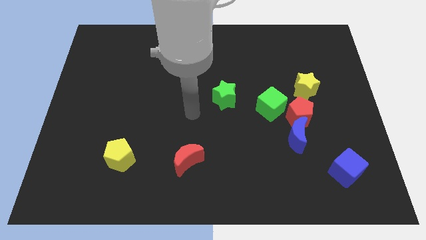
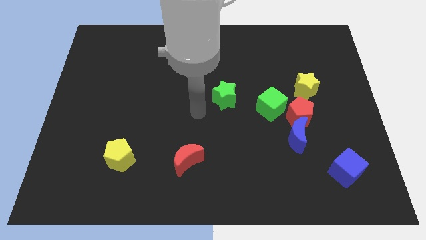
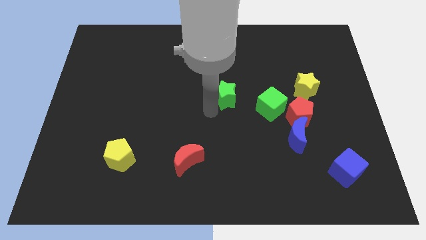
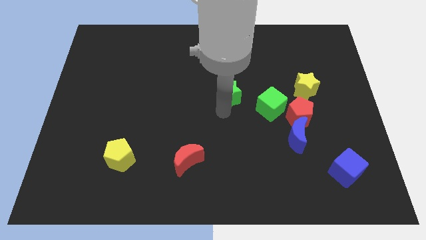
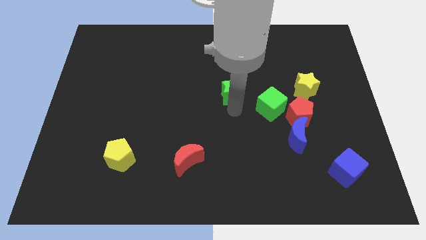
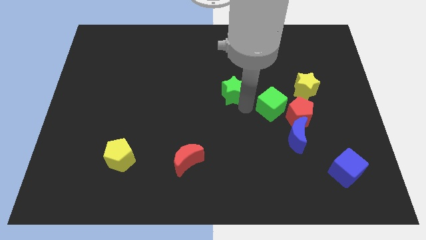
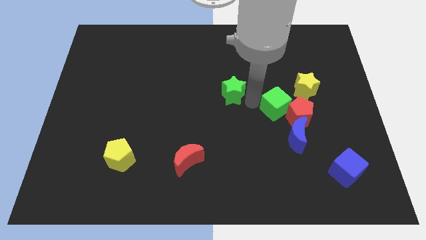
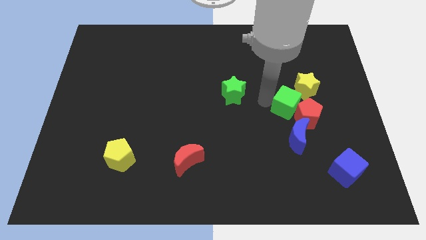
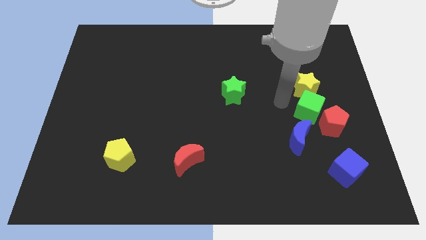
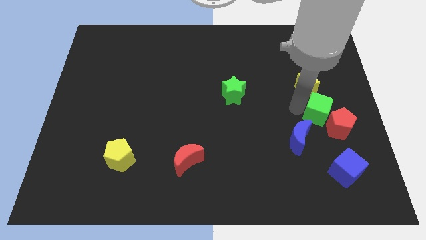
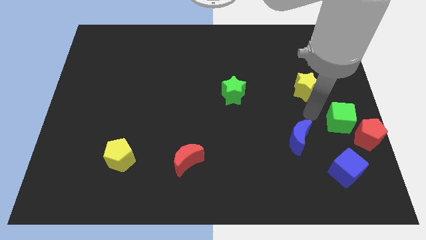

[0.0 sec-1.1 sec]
pull the red pentagon apart from the group of blocks

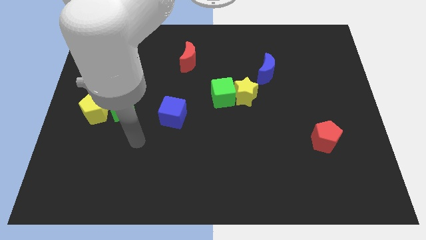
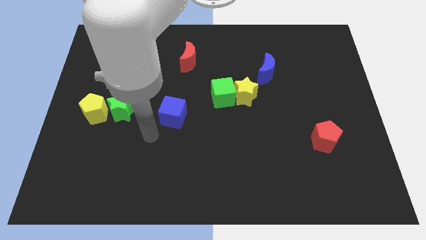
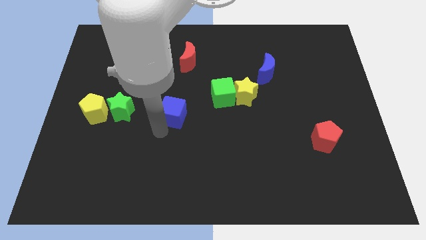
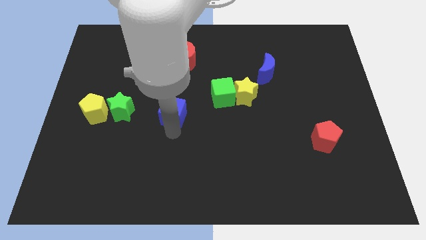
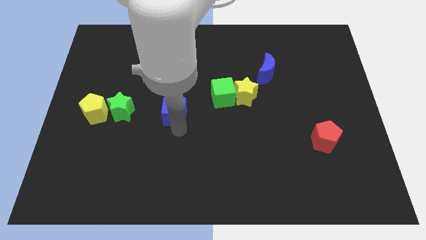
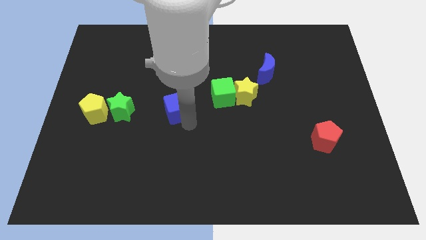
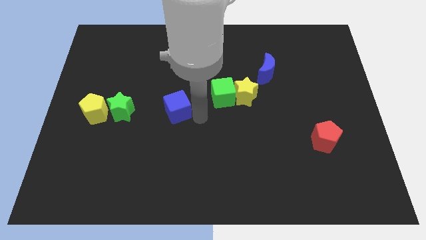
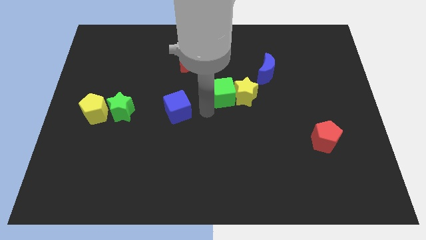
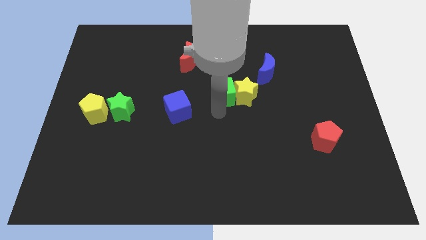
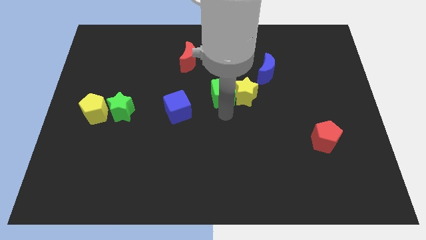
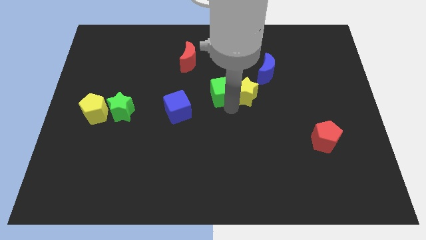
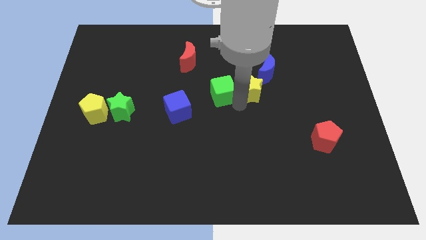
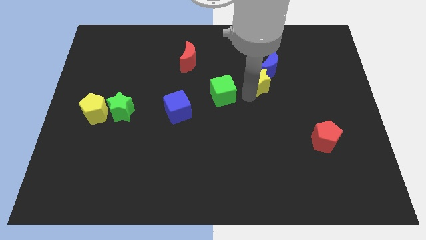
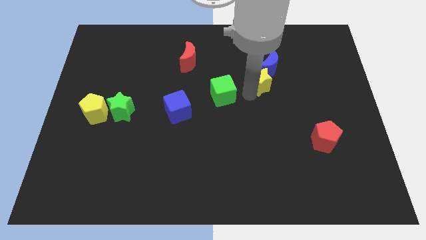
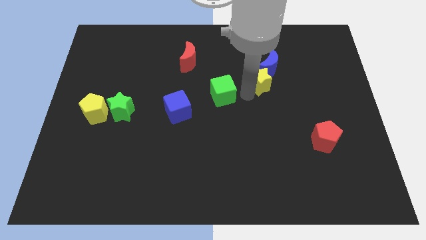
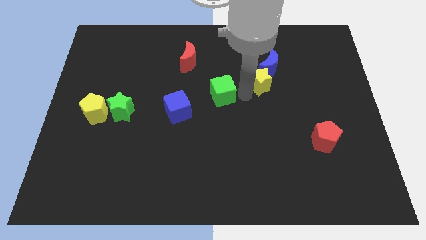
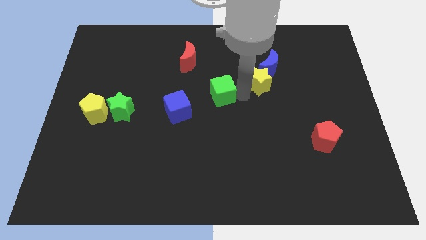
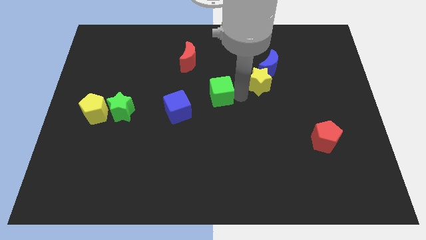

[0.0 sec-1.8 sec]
separate the green cube from the yellow star

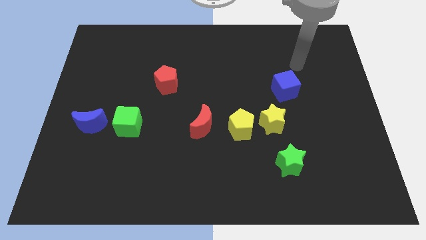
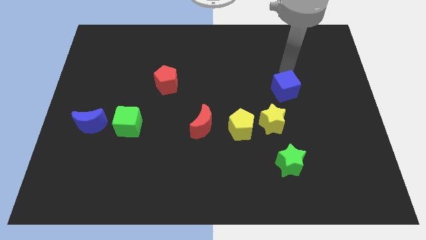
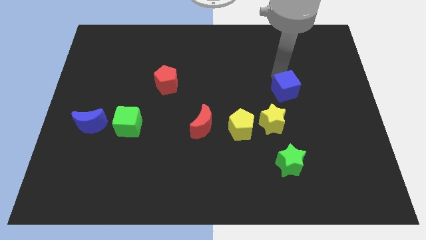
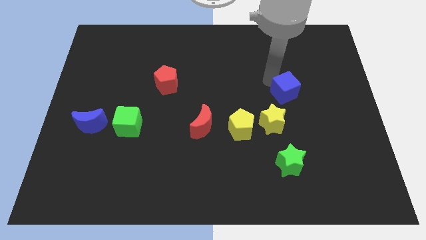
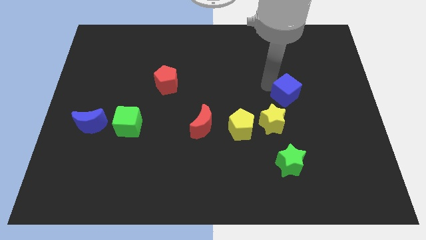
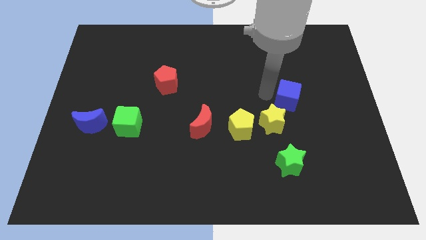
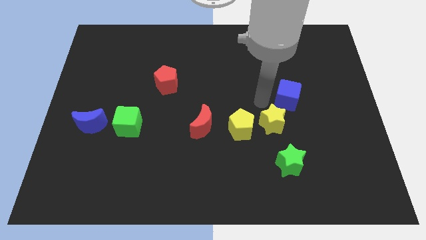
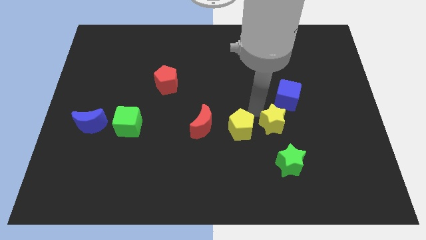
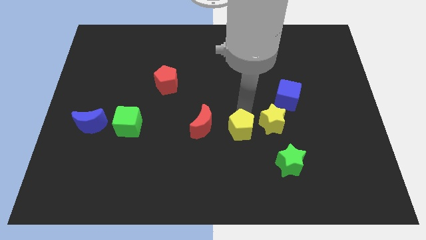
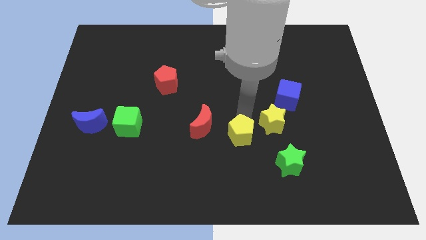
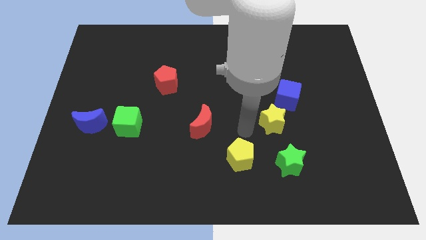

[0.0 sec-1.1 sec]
separate the yellow star from the yellow pentagon

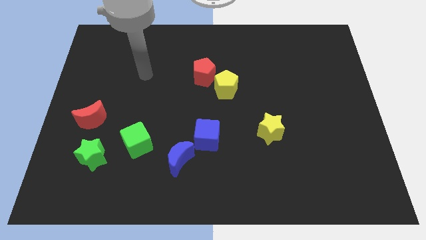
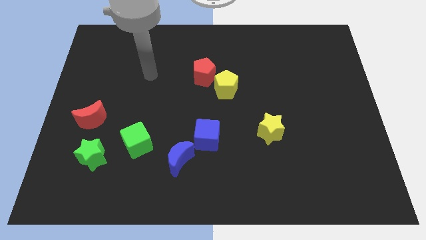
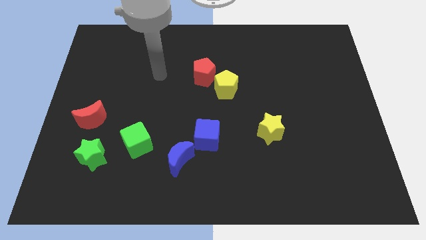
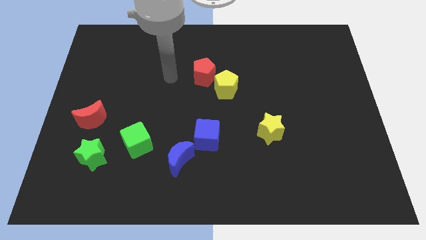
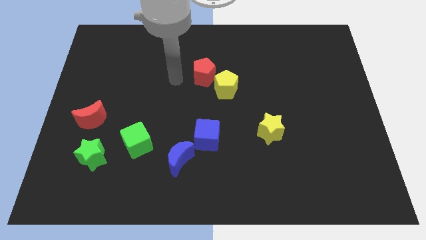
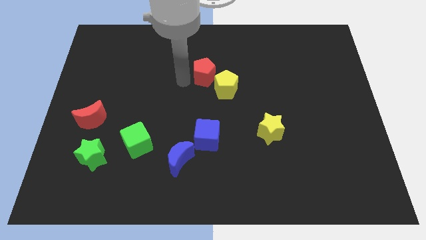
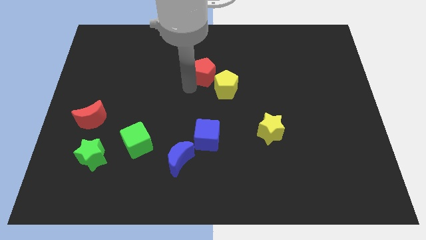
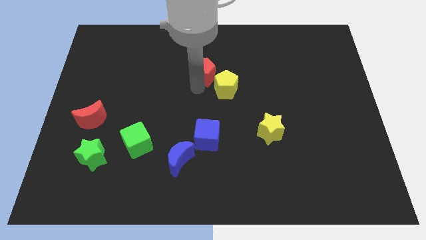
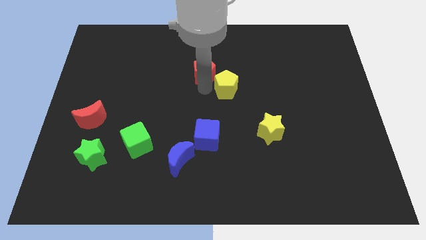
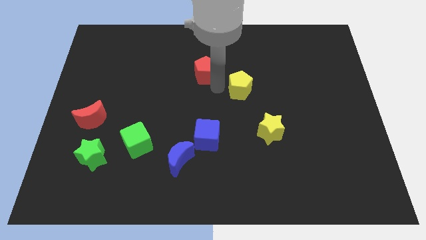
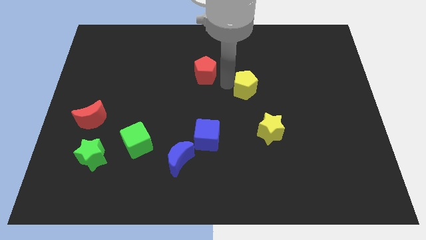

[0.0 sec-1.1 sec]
separate the red pentagon from the yellow pentagon

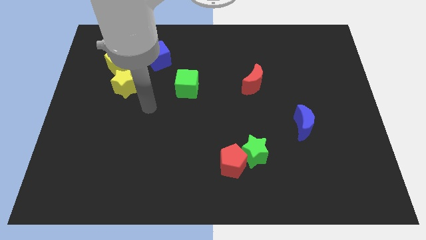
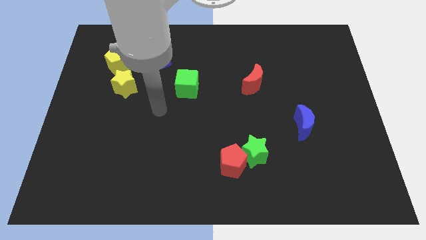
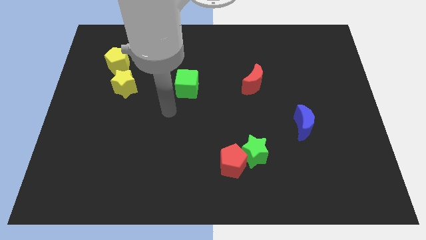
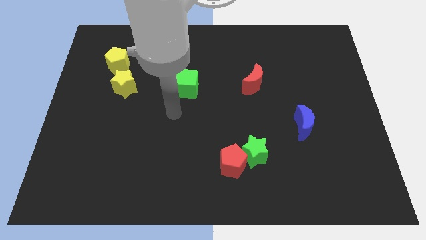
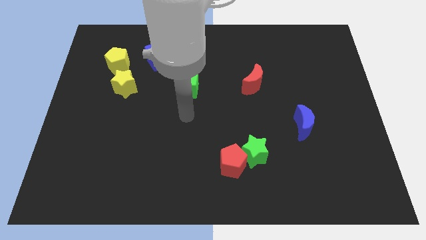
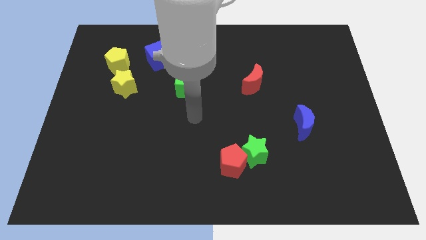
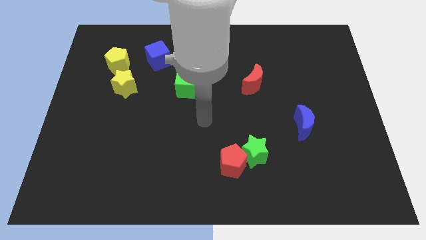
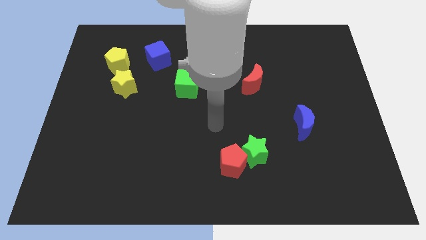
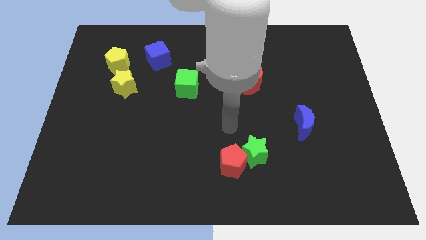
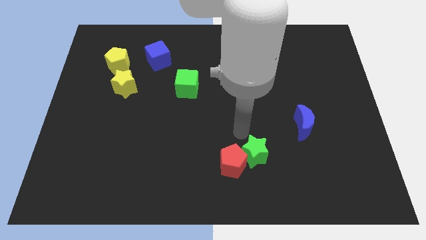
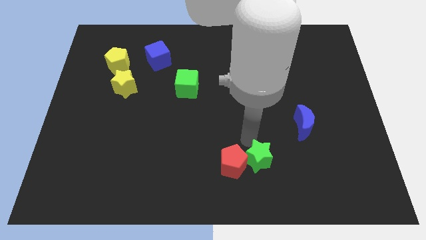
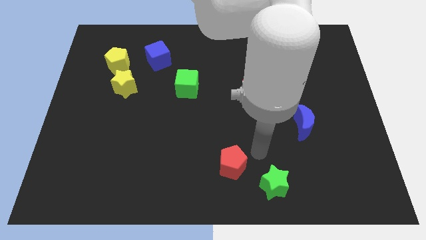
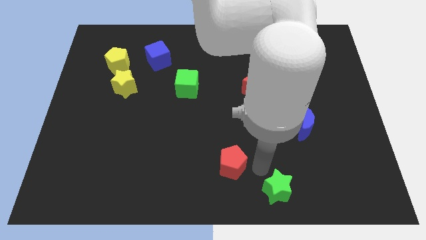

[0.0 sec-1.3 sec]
separate the red pentagon from the green star

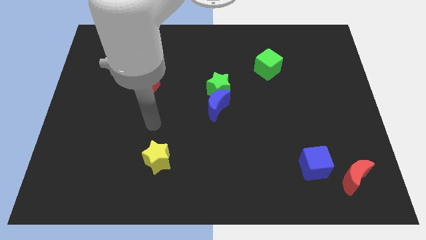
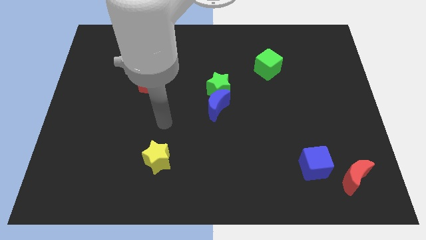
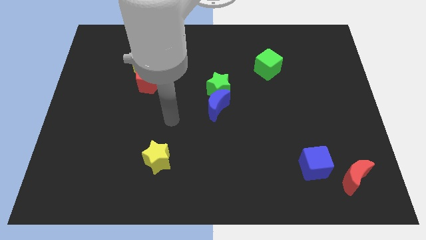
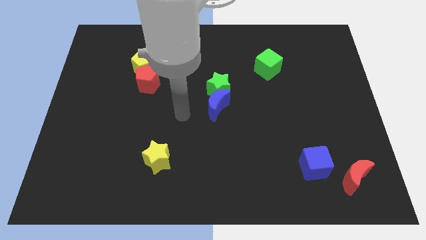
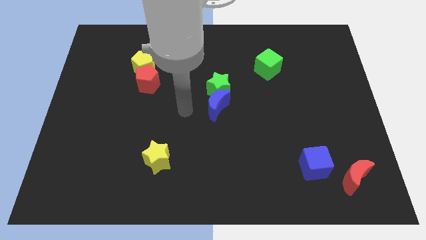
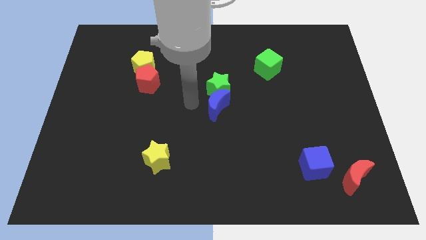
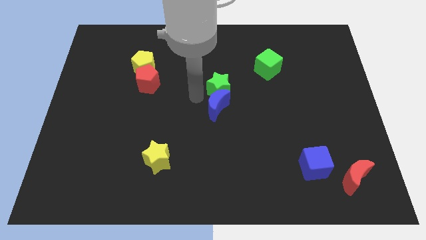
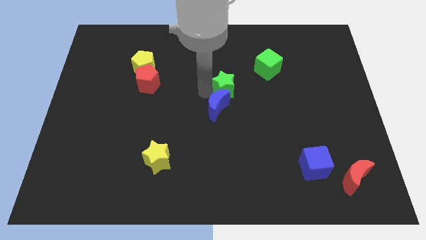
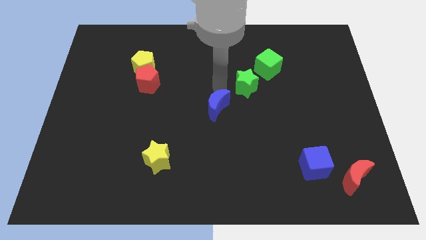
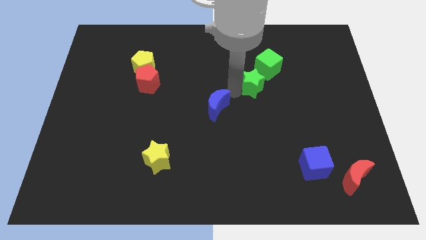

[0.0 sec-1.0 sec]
pull the blue moon apart from the green star

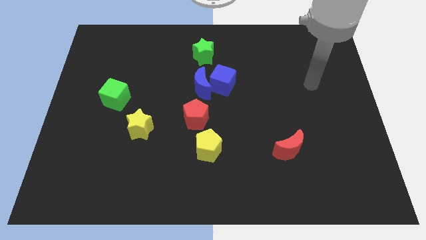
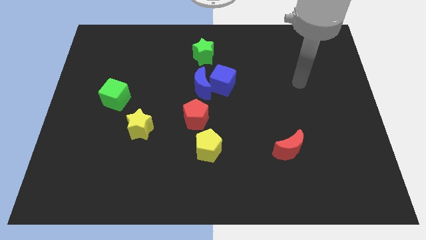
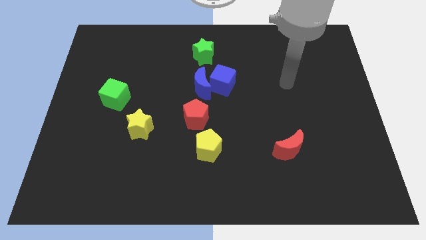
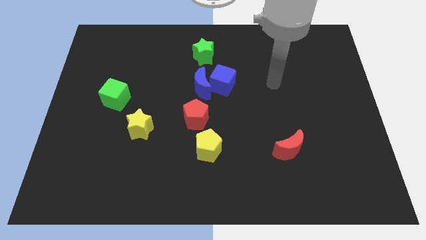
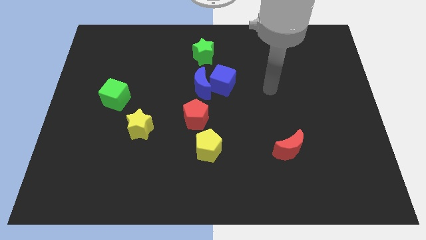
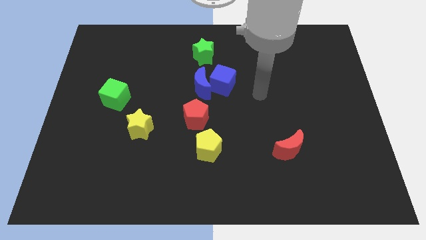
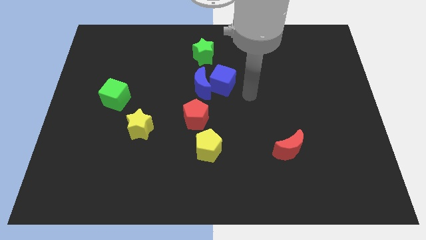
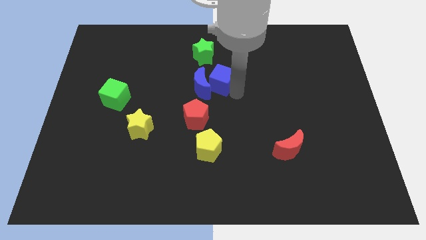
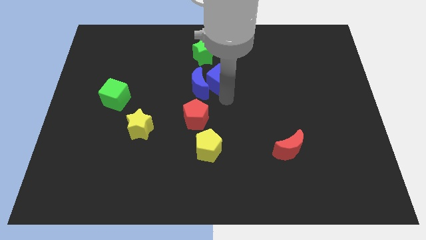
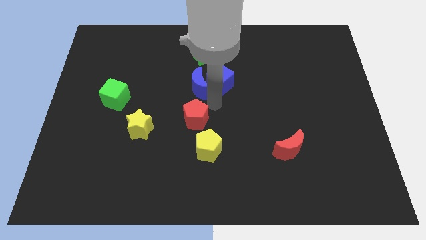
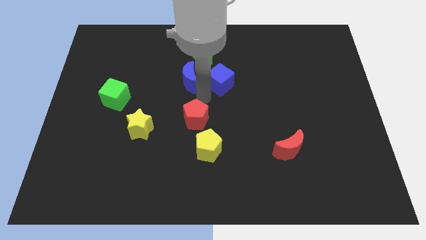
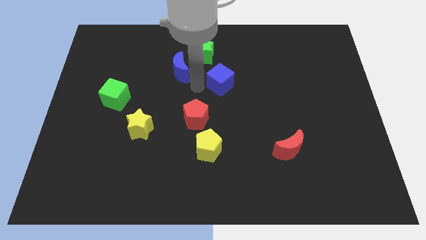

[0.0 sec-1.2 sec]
move the blue cube away from the blue moon

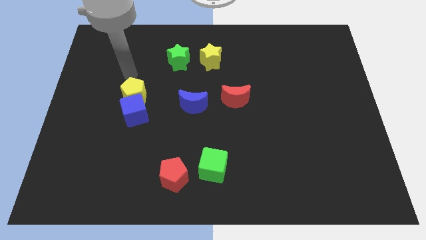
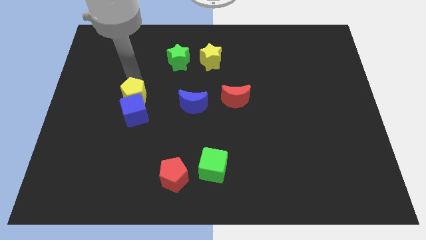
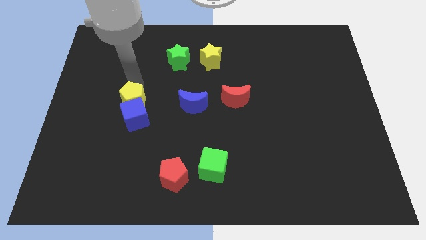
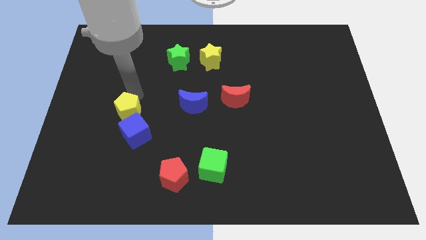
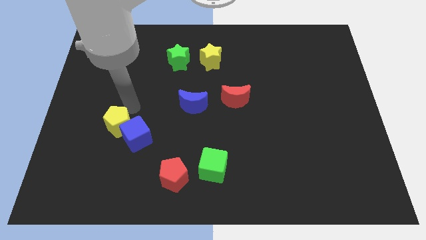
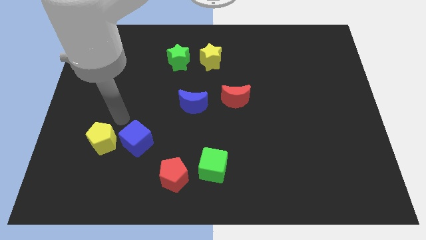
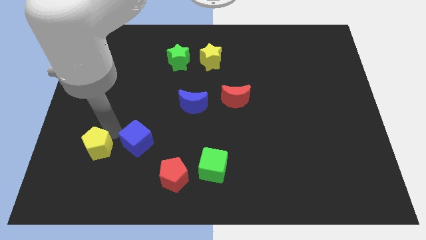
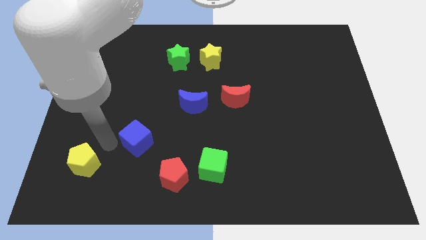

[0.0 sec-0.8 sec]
pull the blue cube apart from the yellow pentagon

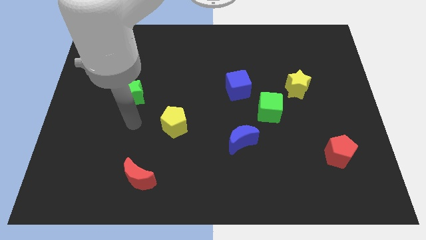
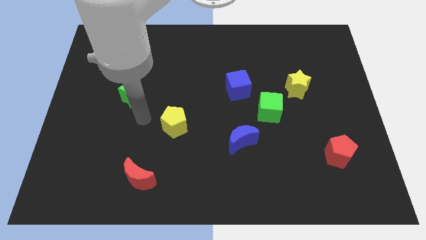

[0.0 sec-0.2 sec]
pull the blue cube apart from the green cube
